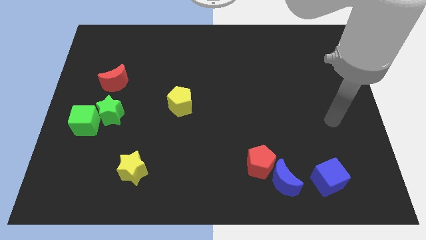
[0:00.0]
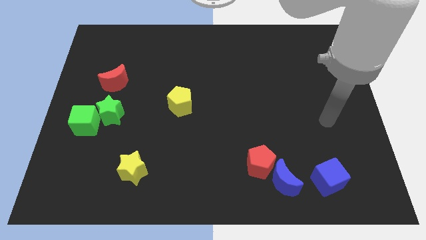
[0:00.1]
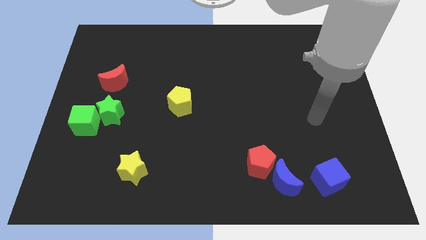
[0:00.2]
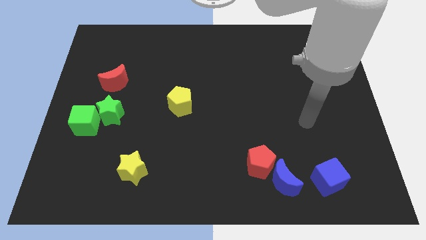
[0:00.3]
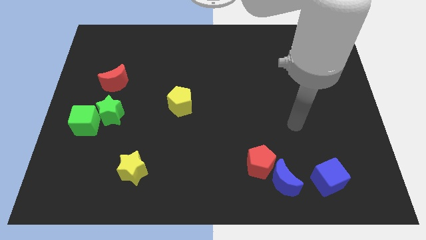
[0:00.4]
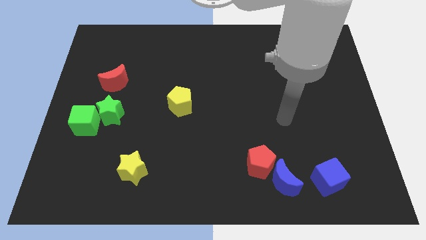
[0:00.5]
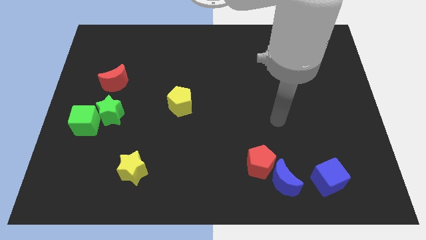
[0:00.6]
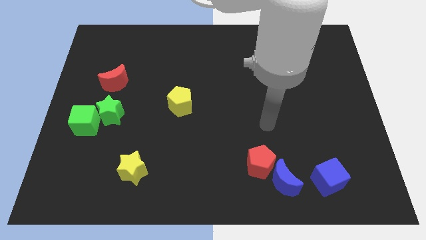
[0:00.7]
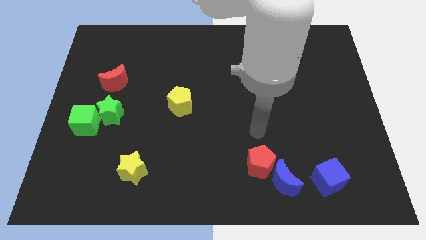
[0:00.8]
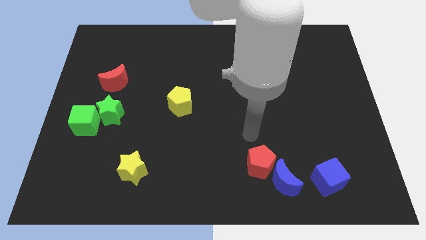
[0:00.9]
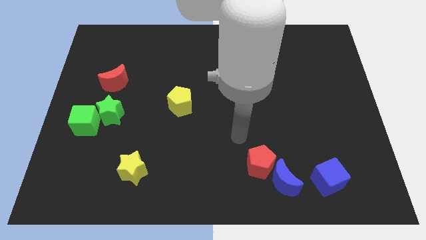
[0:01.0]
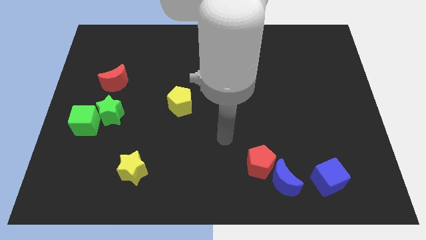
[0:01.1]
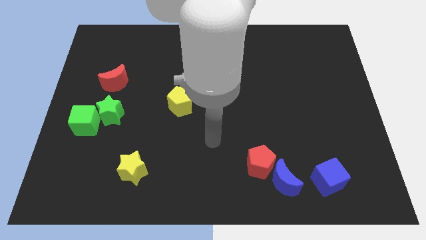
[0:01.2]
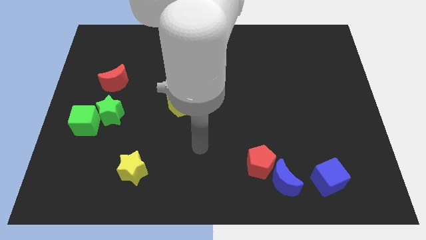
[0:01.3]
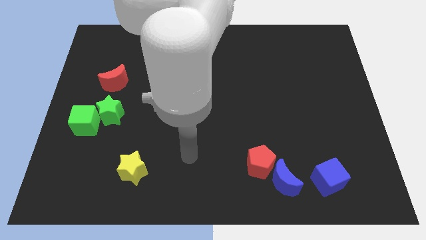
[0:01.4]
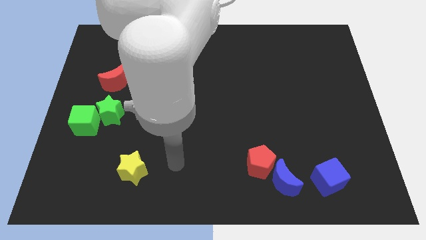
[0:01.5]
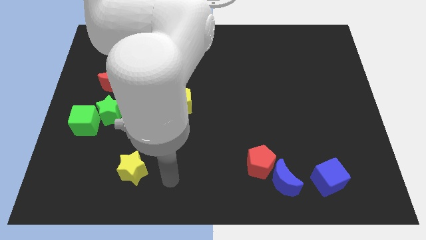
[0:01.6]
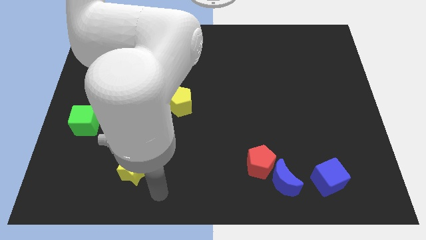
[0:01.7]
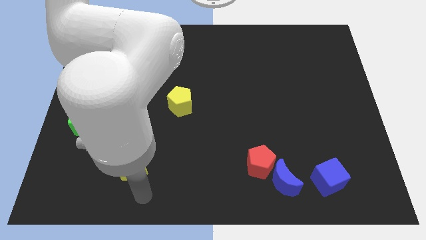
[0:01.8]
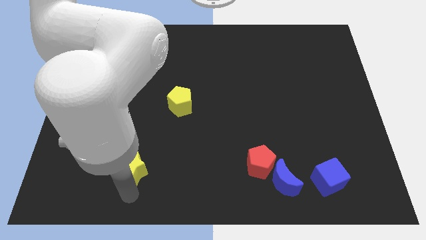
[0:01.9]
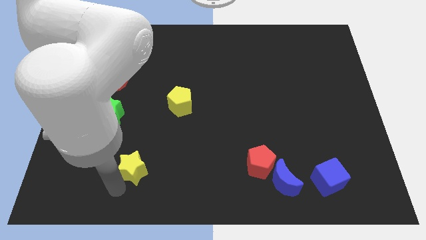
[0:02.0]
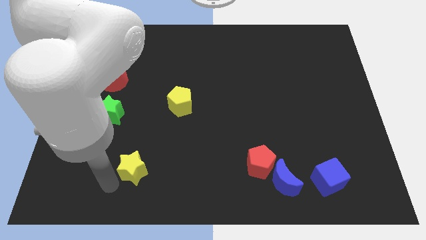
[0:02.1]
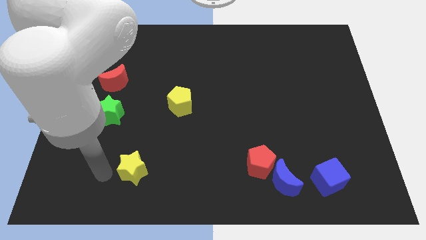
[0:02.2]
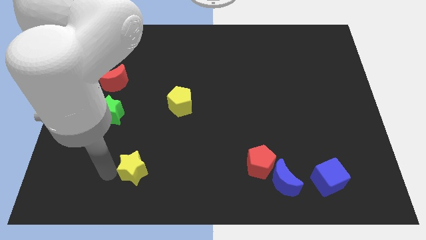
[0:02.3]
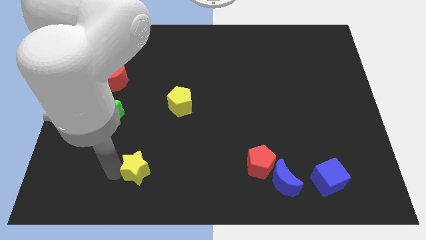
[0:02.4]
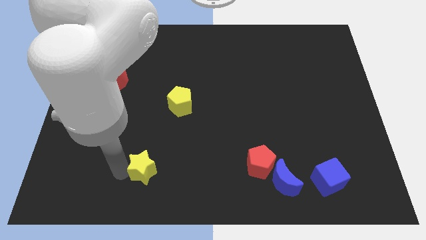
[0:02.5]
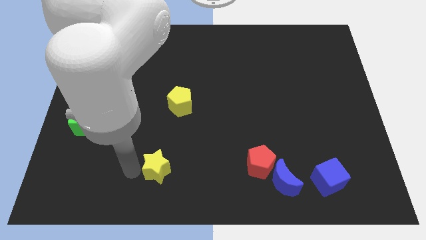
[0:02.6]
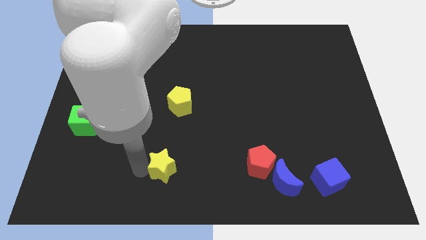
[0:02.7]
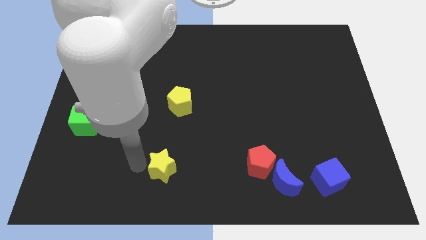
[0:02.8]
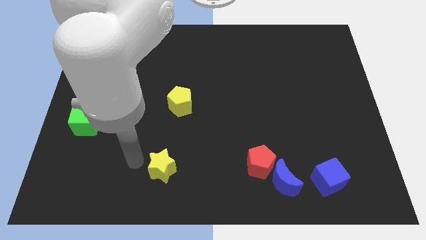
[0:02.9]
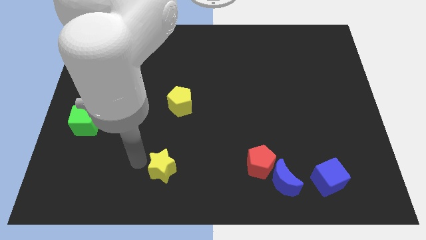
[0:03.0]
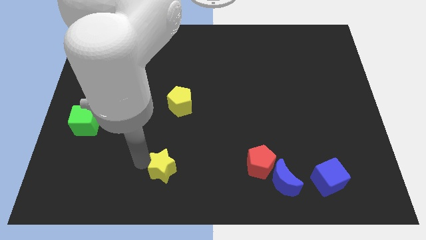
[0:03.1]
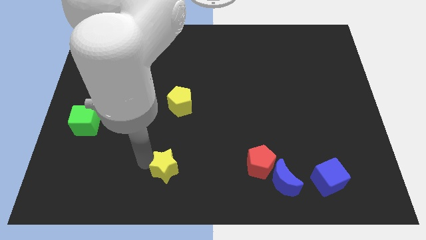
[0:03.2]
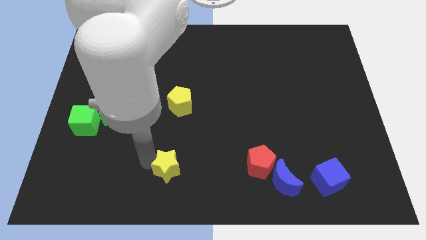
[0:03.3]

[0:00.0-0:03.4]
move the yellow star somewhat to the right

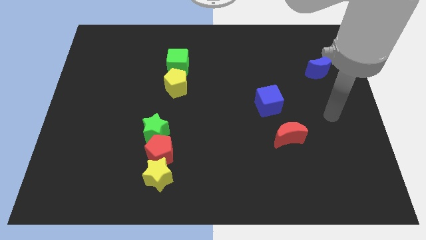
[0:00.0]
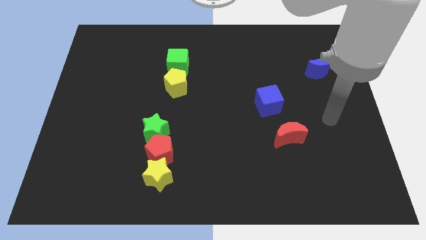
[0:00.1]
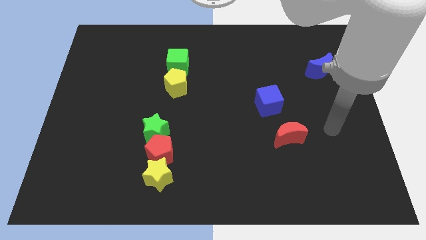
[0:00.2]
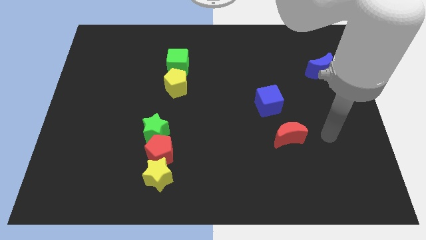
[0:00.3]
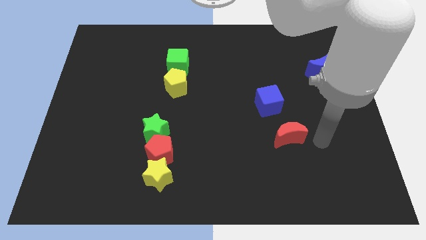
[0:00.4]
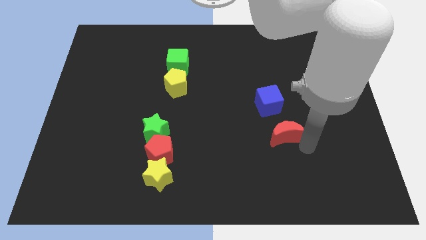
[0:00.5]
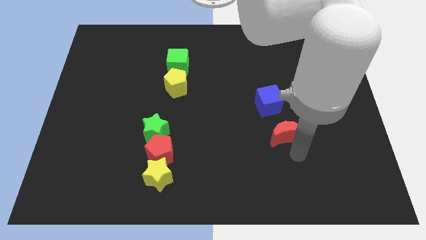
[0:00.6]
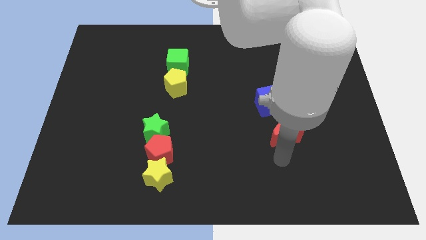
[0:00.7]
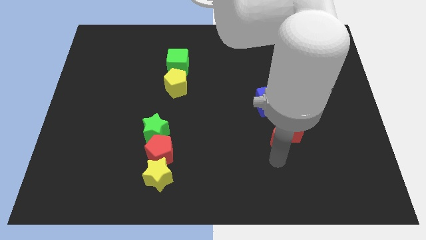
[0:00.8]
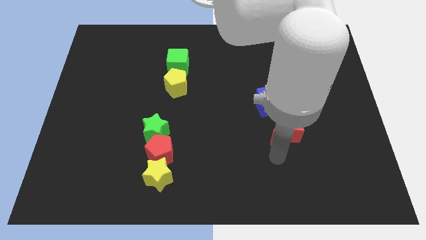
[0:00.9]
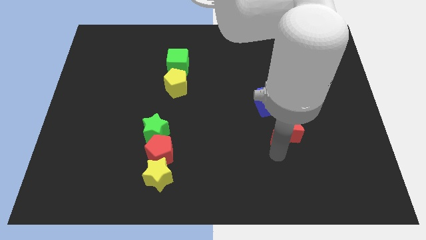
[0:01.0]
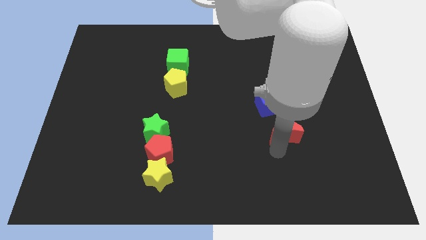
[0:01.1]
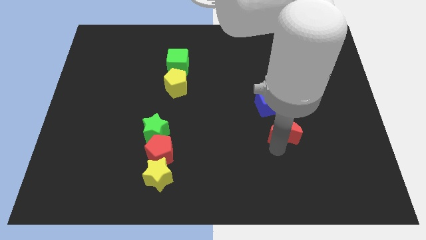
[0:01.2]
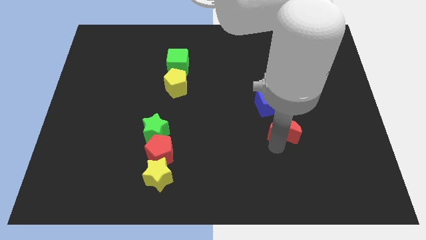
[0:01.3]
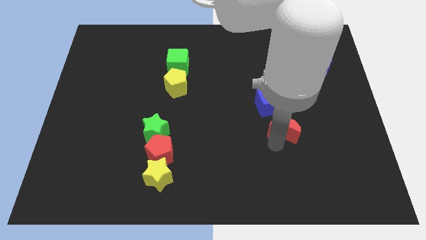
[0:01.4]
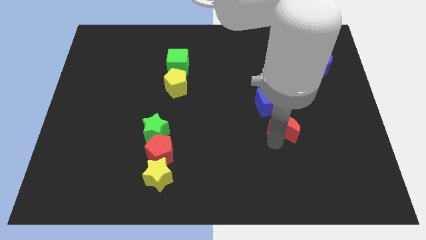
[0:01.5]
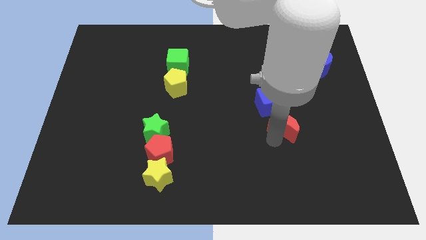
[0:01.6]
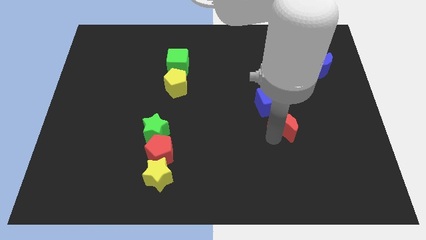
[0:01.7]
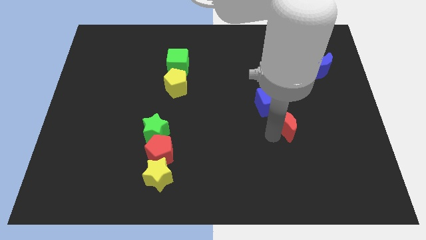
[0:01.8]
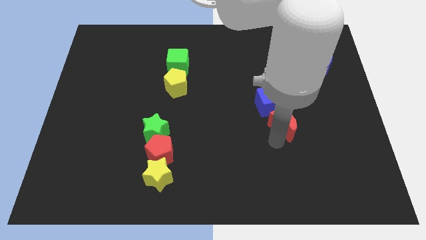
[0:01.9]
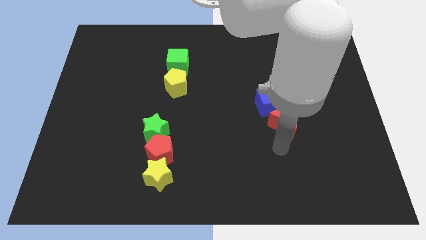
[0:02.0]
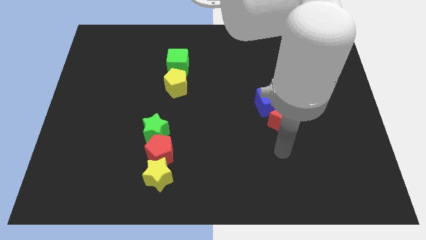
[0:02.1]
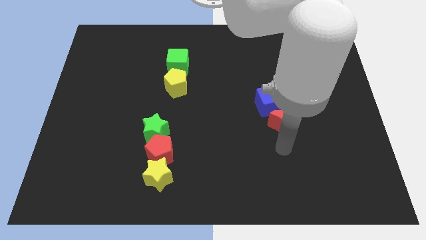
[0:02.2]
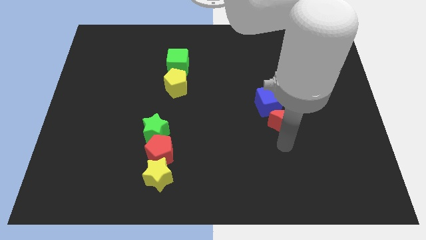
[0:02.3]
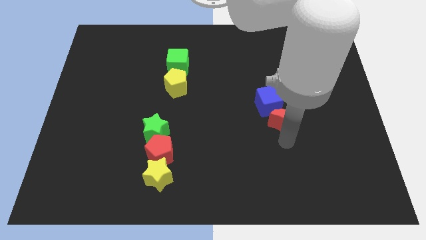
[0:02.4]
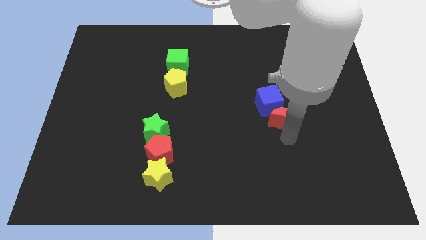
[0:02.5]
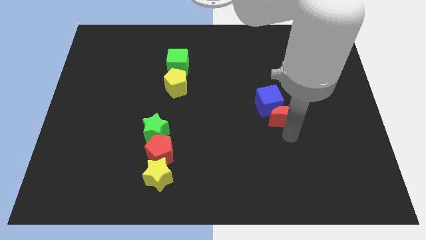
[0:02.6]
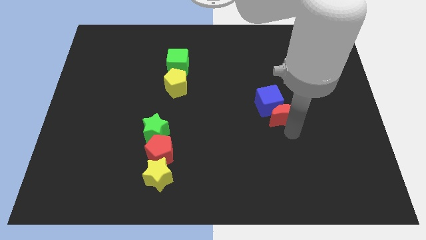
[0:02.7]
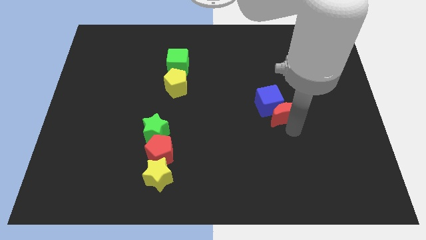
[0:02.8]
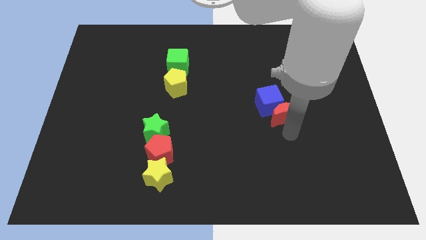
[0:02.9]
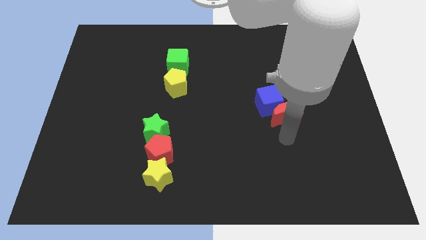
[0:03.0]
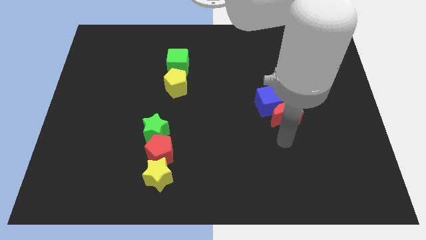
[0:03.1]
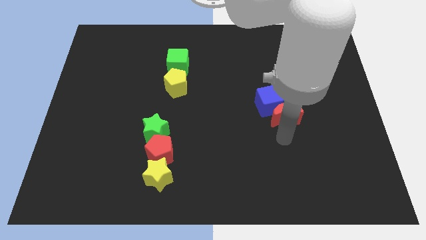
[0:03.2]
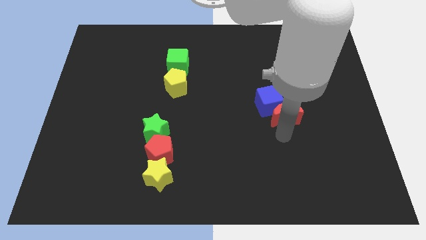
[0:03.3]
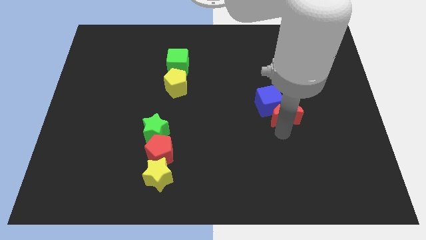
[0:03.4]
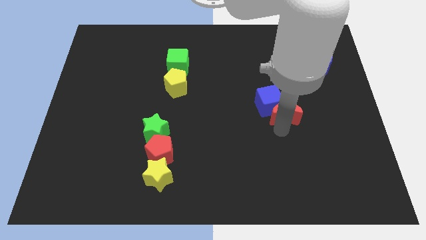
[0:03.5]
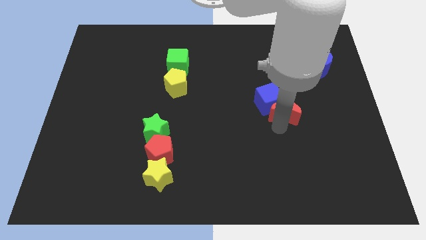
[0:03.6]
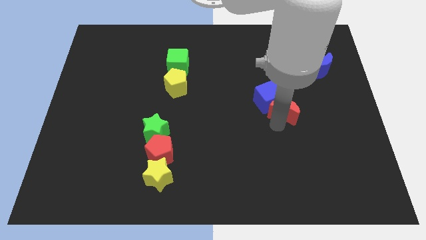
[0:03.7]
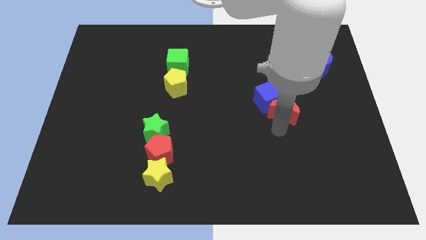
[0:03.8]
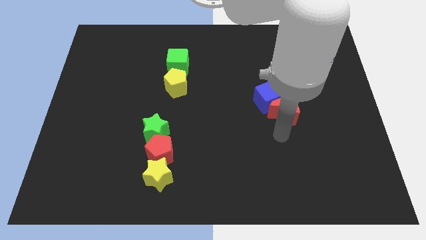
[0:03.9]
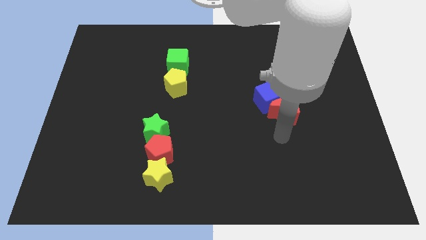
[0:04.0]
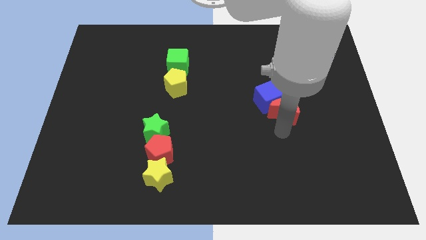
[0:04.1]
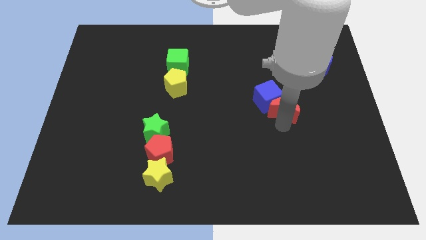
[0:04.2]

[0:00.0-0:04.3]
slide the red moon upwards slightly

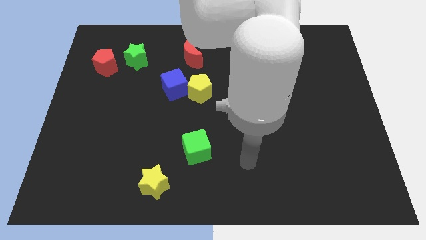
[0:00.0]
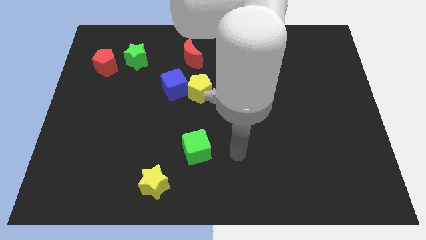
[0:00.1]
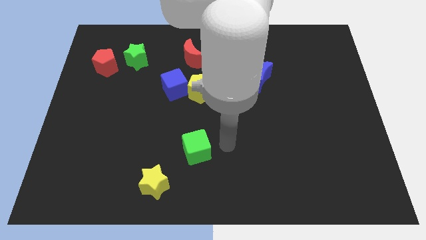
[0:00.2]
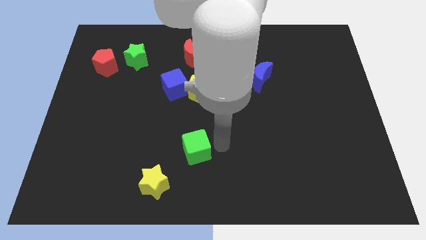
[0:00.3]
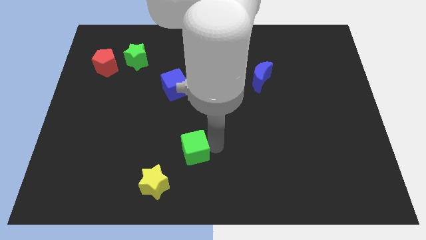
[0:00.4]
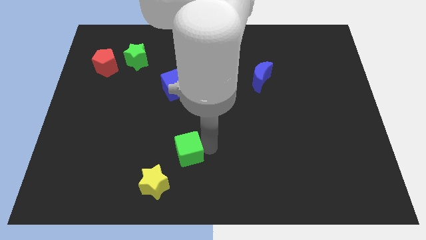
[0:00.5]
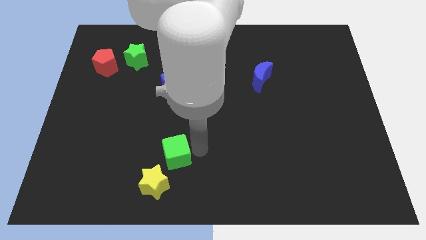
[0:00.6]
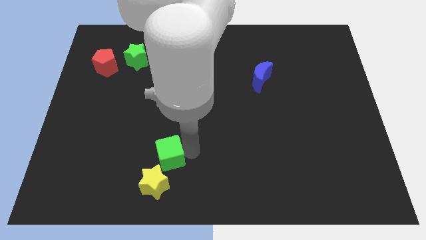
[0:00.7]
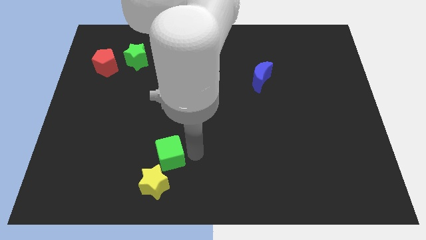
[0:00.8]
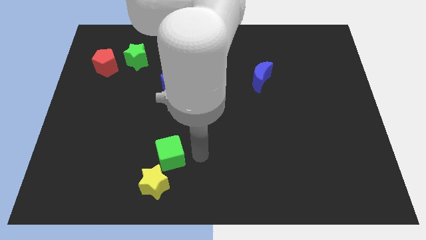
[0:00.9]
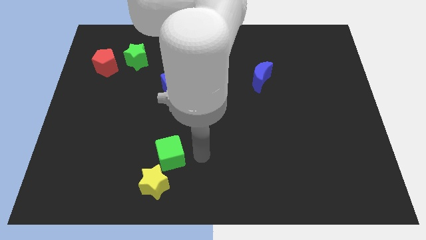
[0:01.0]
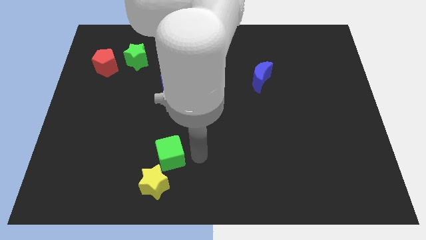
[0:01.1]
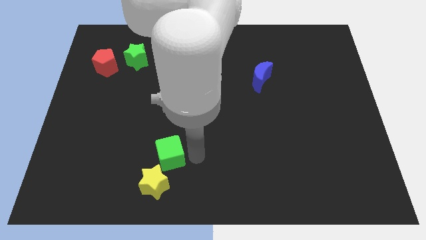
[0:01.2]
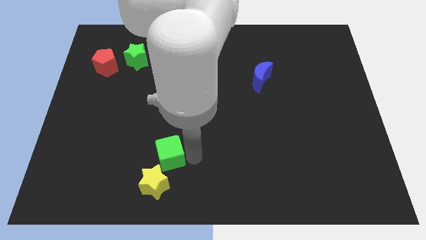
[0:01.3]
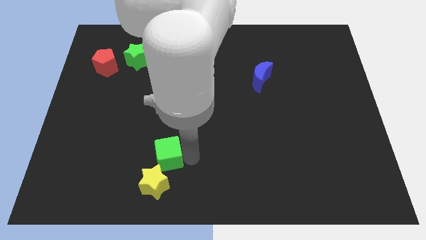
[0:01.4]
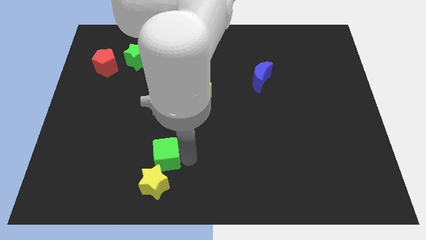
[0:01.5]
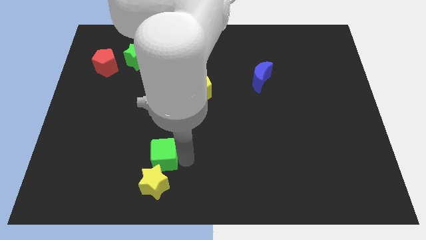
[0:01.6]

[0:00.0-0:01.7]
push the green cube slightly left
